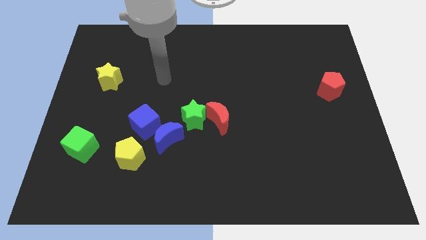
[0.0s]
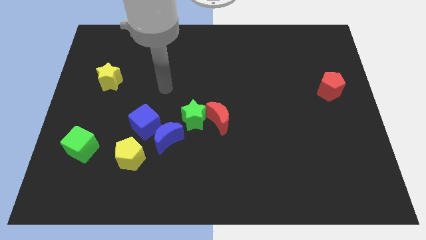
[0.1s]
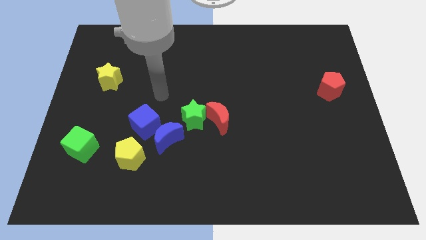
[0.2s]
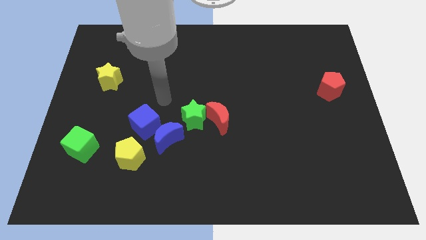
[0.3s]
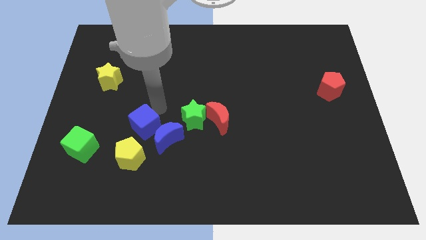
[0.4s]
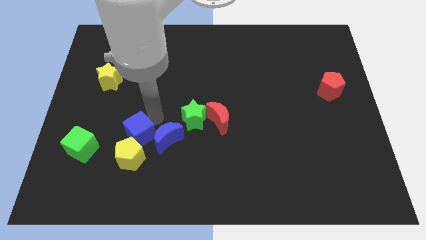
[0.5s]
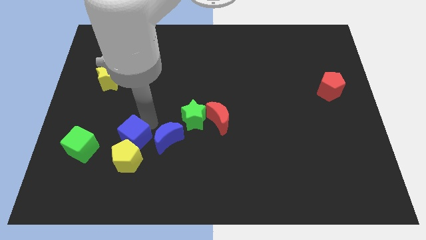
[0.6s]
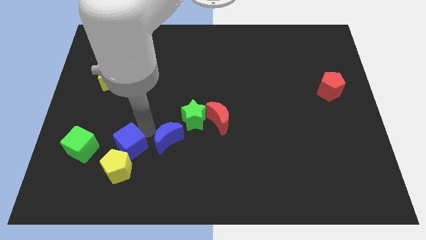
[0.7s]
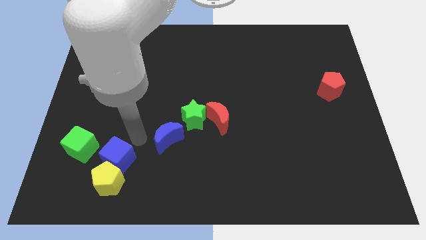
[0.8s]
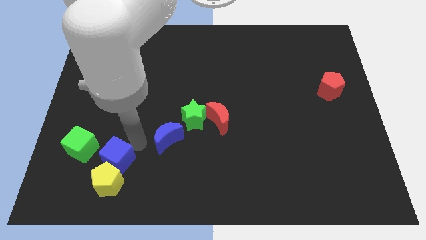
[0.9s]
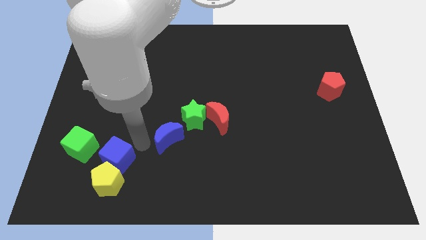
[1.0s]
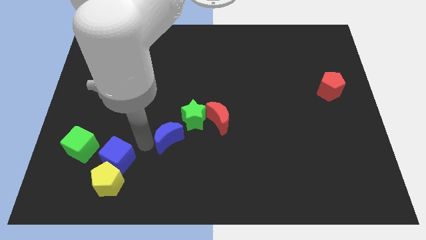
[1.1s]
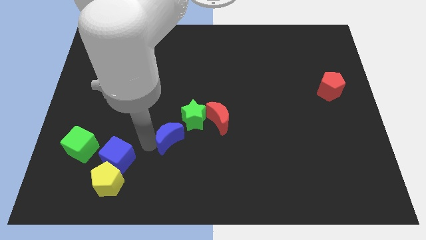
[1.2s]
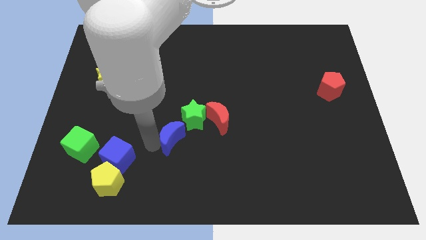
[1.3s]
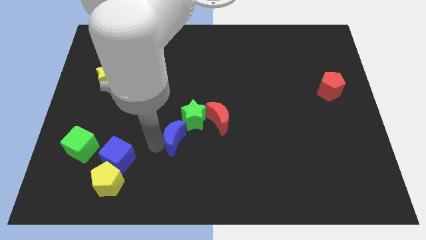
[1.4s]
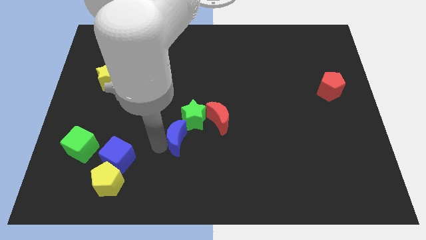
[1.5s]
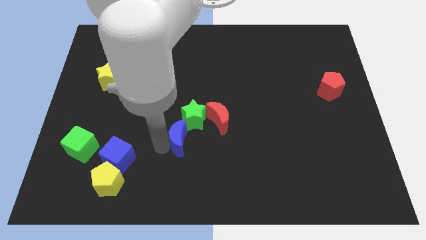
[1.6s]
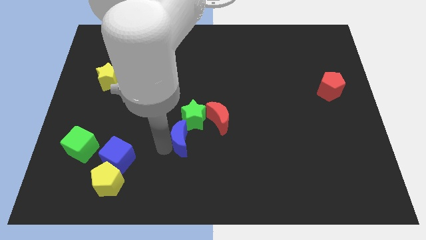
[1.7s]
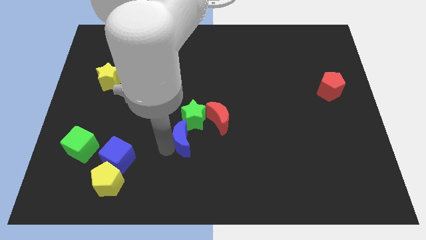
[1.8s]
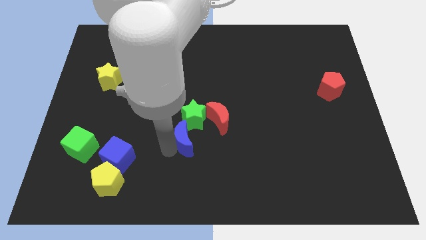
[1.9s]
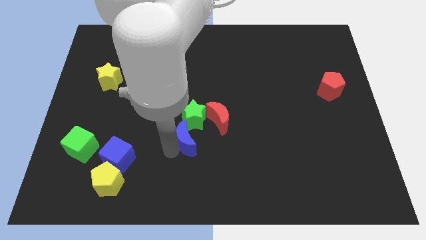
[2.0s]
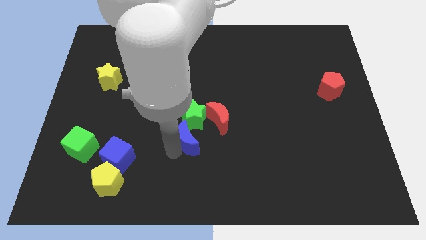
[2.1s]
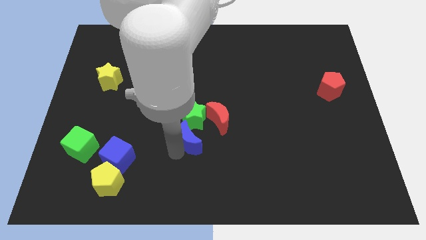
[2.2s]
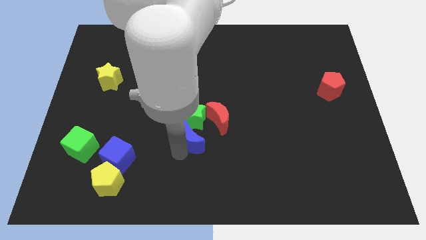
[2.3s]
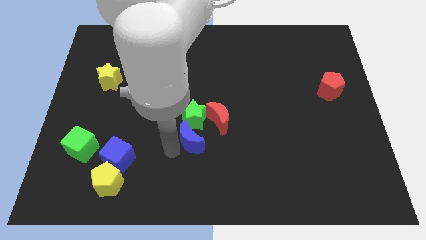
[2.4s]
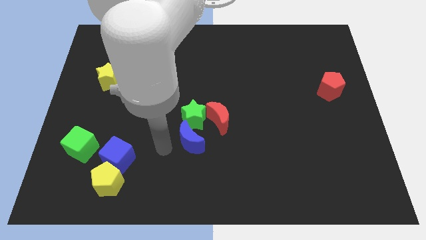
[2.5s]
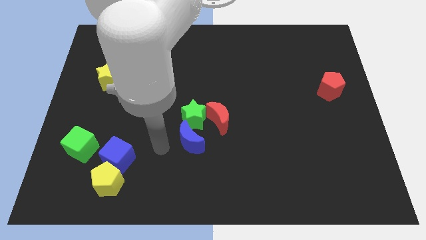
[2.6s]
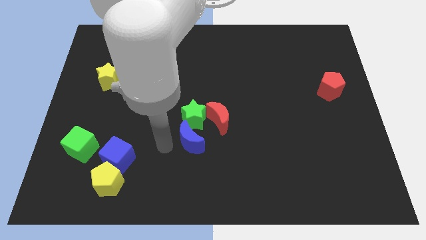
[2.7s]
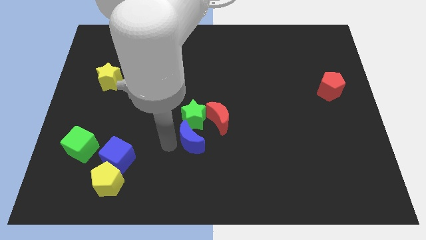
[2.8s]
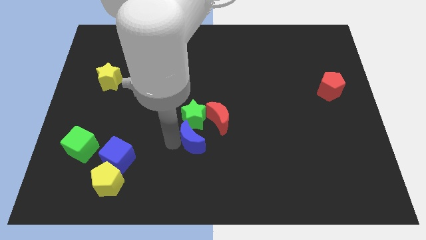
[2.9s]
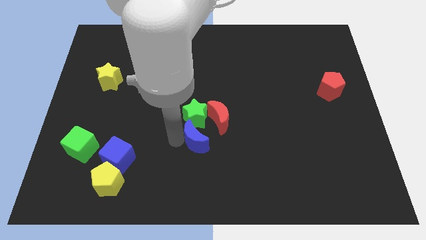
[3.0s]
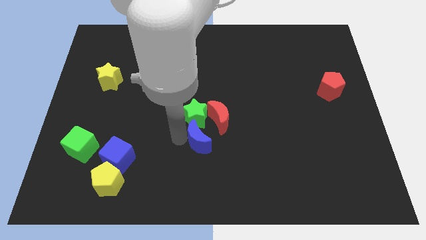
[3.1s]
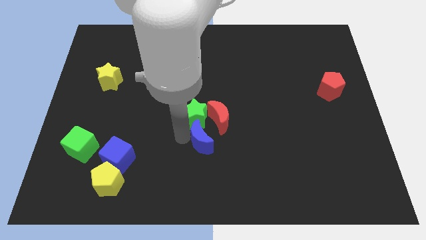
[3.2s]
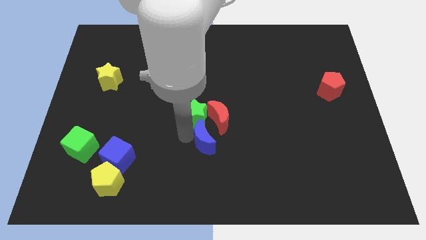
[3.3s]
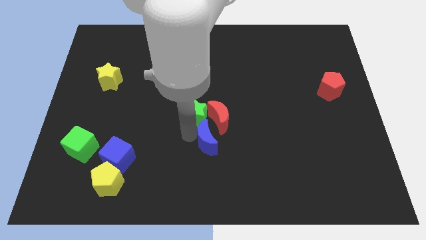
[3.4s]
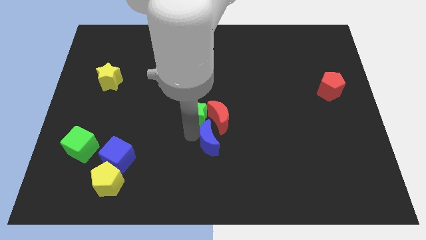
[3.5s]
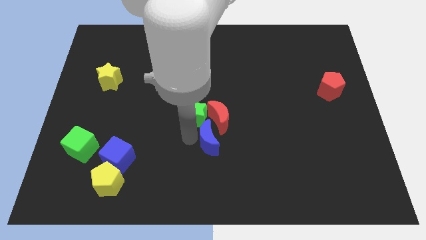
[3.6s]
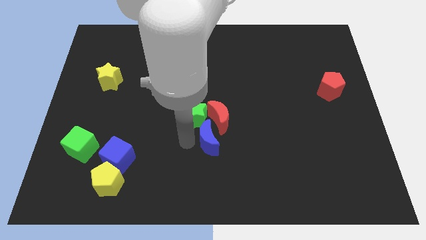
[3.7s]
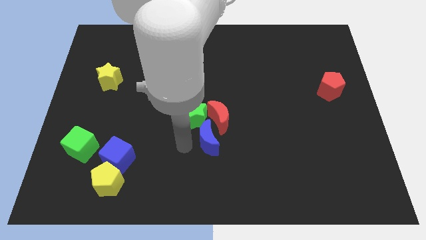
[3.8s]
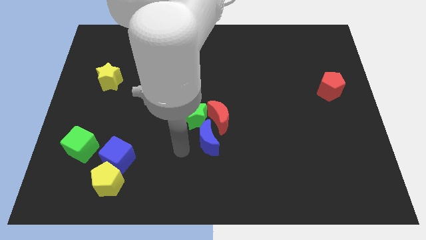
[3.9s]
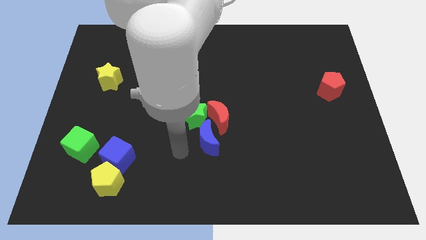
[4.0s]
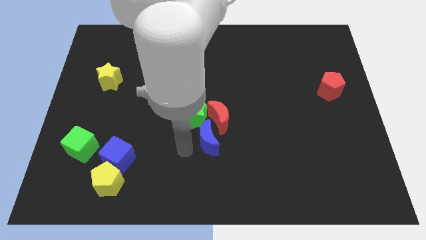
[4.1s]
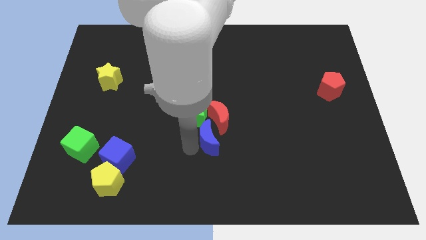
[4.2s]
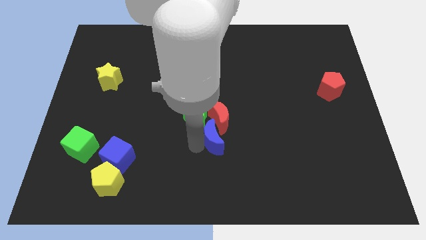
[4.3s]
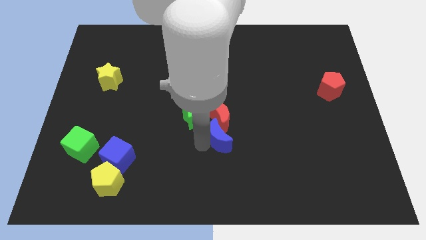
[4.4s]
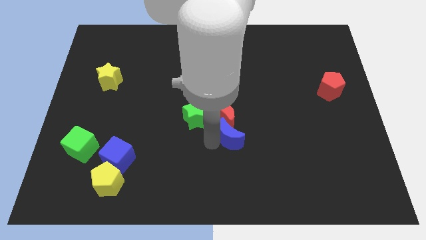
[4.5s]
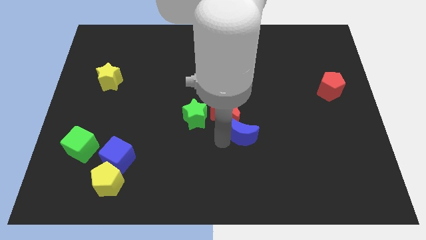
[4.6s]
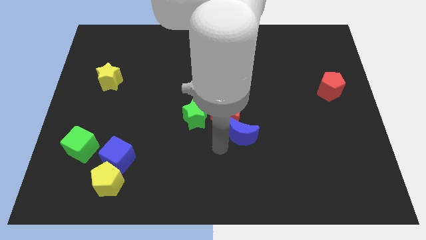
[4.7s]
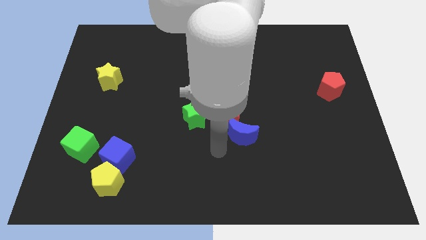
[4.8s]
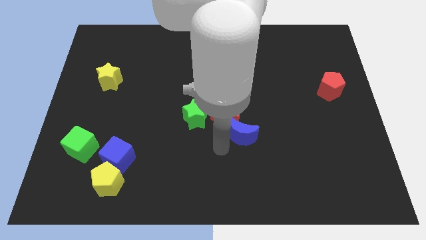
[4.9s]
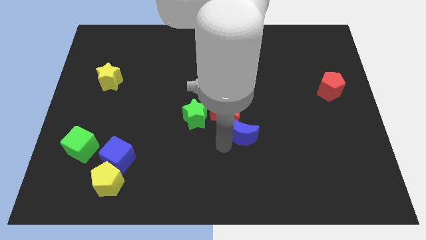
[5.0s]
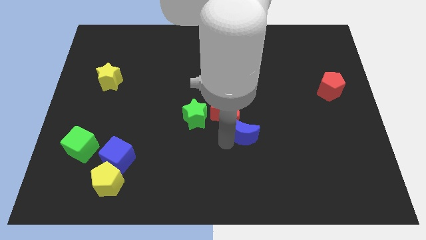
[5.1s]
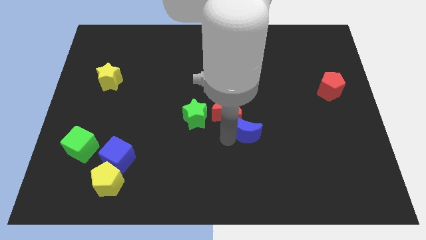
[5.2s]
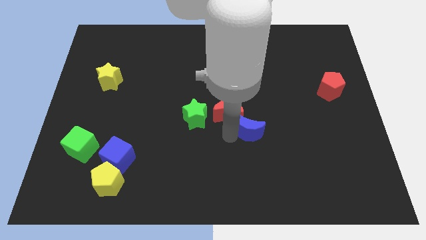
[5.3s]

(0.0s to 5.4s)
put the blue moon just right of the red moon

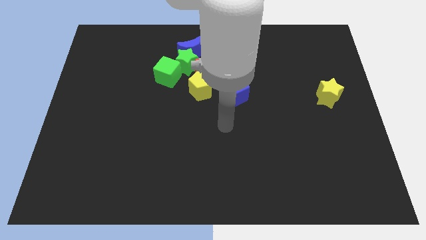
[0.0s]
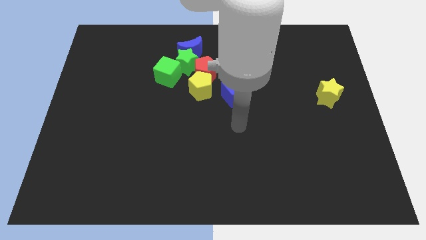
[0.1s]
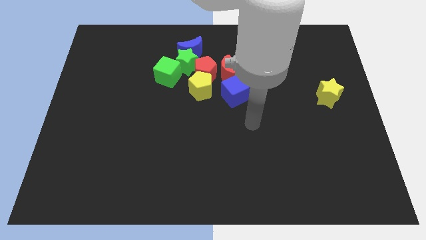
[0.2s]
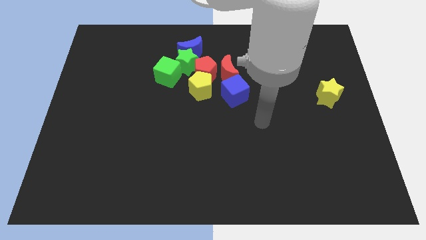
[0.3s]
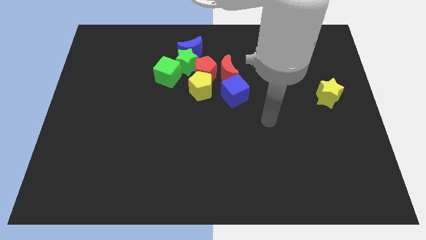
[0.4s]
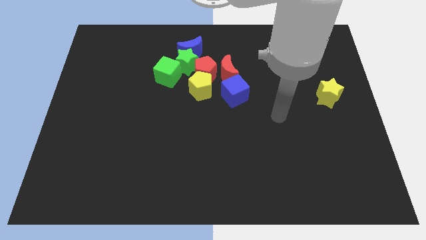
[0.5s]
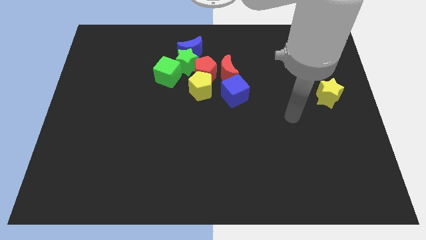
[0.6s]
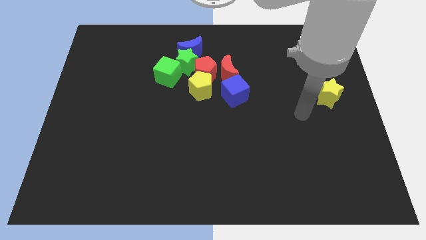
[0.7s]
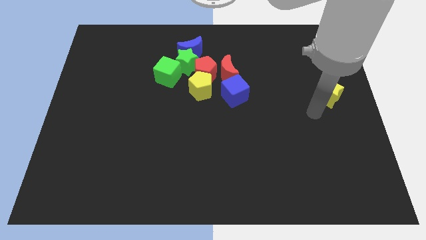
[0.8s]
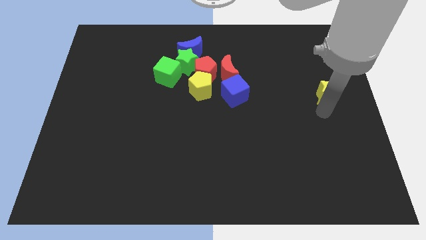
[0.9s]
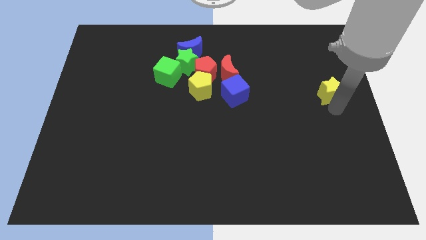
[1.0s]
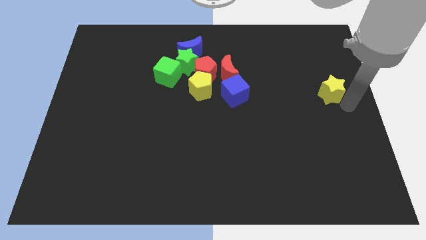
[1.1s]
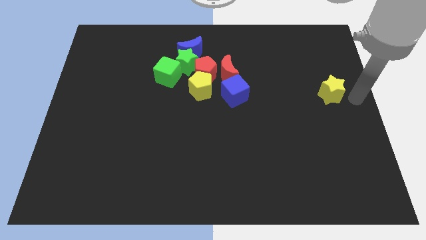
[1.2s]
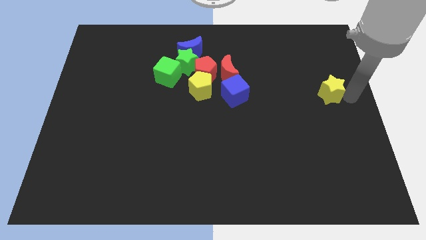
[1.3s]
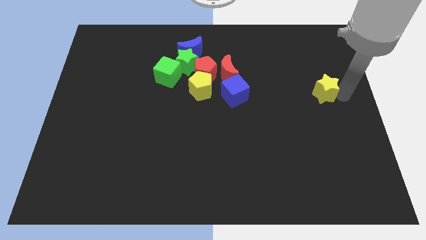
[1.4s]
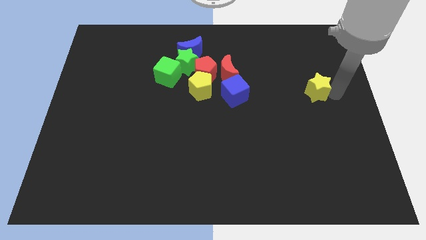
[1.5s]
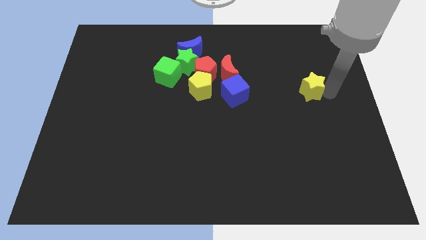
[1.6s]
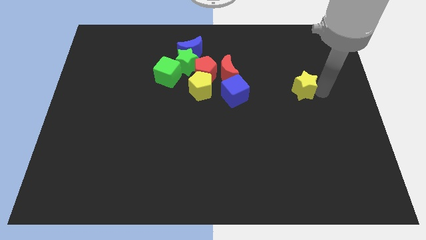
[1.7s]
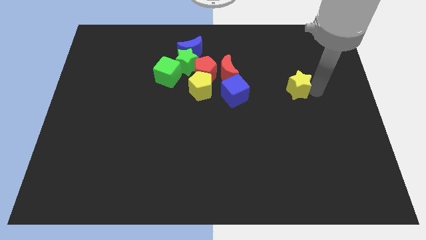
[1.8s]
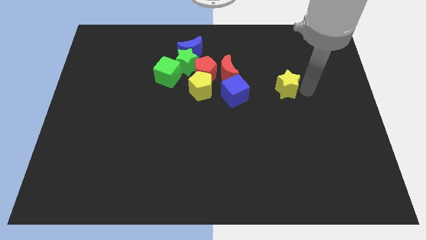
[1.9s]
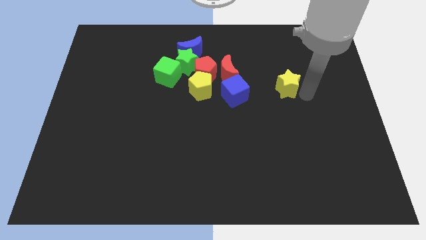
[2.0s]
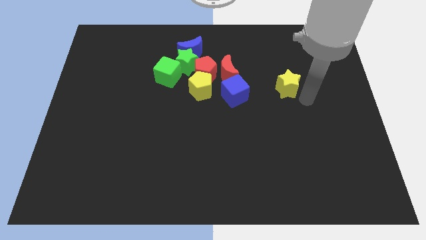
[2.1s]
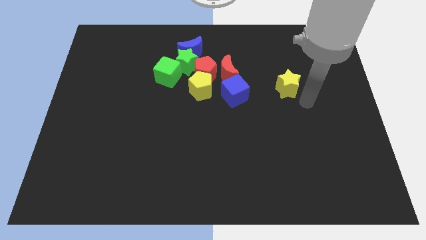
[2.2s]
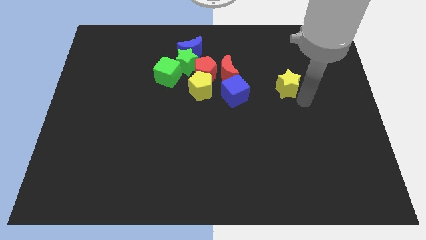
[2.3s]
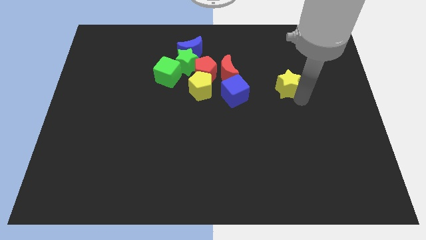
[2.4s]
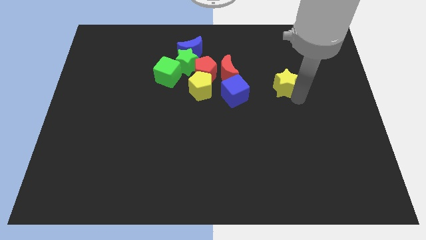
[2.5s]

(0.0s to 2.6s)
push the yellow star to the right of the red moon

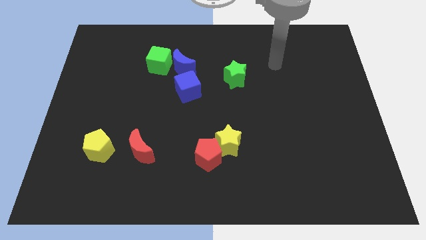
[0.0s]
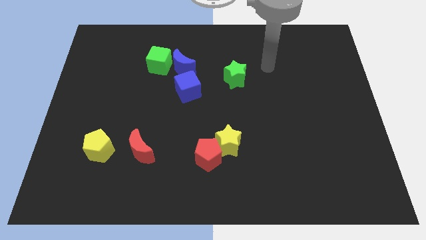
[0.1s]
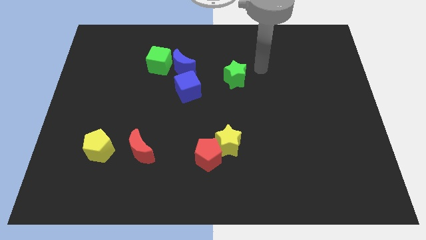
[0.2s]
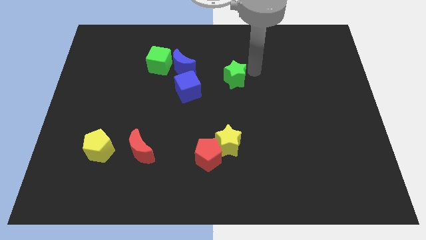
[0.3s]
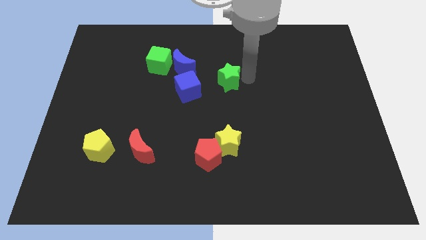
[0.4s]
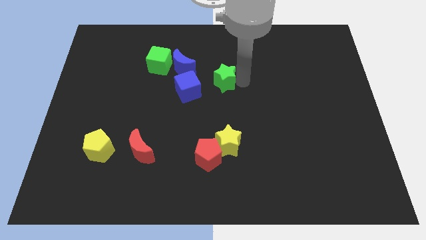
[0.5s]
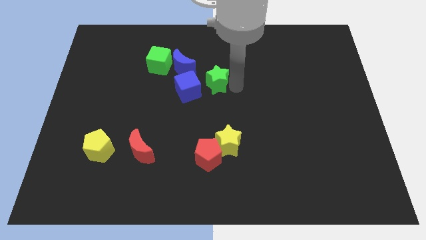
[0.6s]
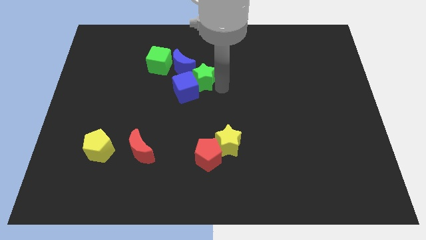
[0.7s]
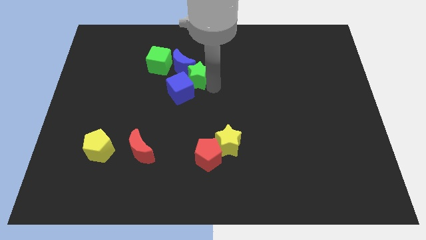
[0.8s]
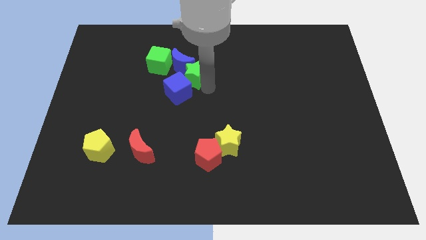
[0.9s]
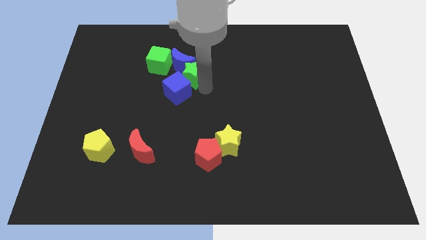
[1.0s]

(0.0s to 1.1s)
push the blue cube to the bottom of the green cube
